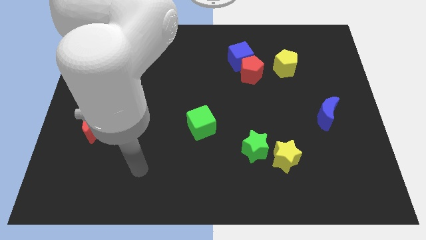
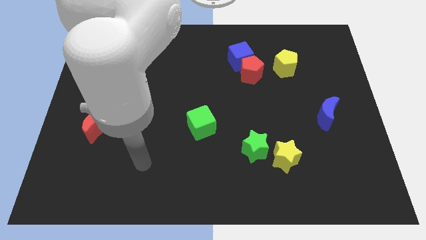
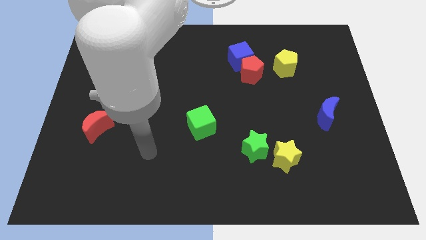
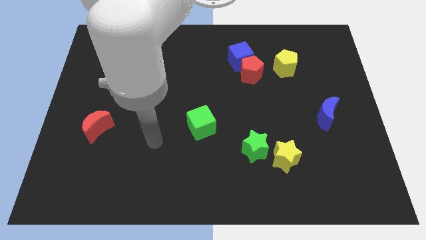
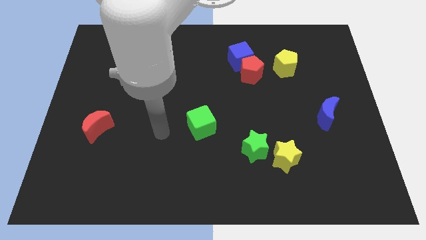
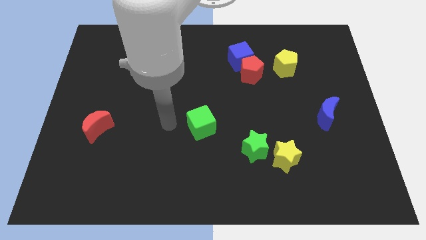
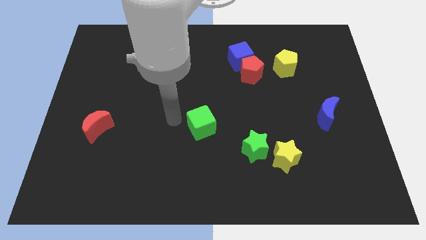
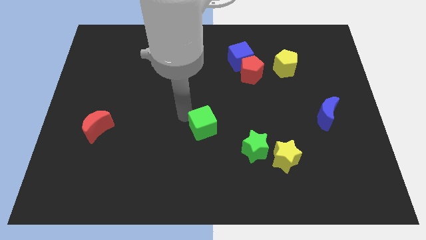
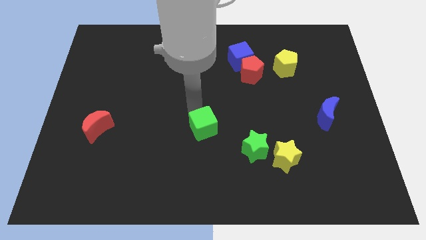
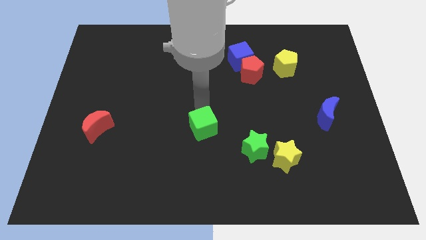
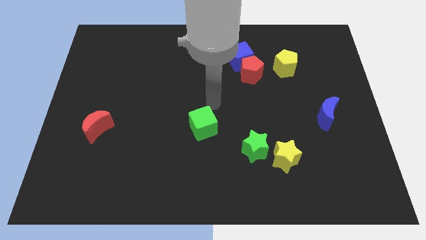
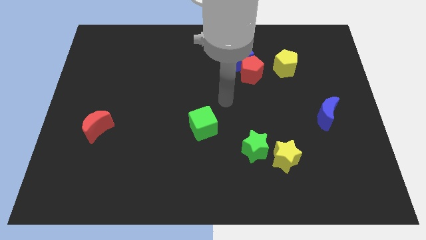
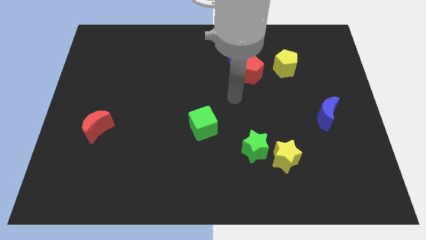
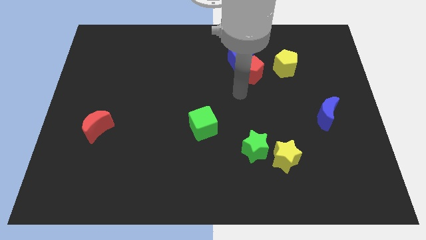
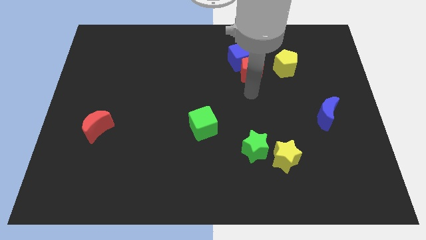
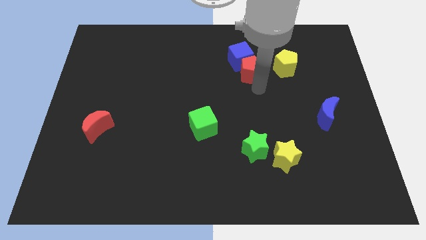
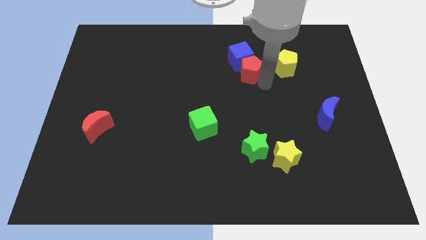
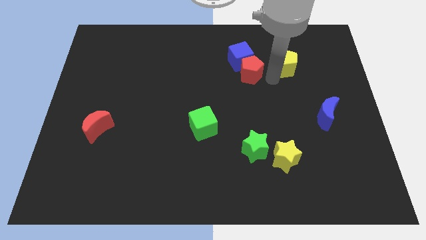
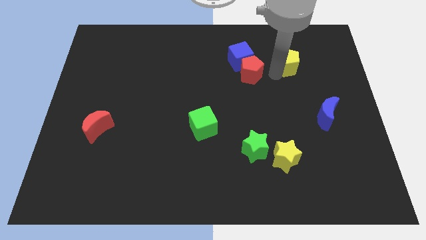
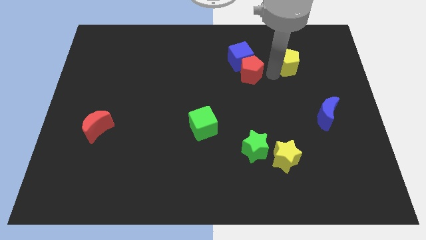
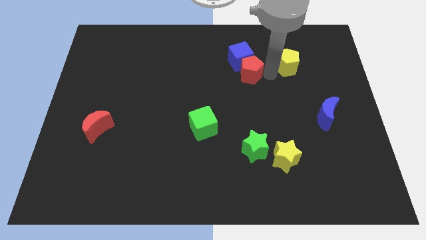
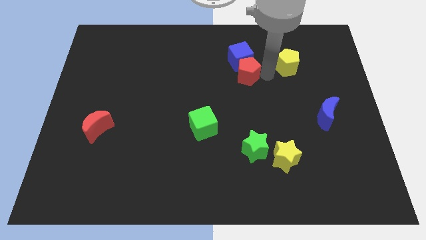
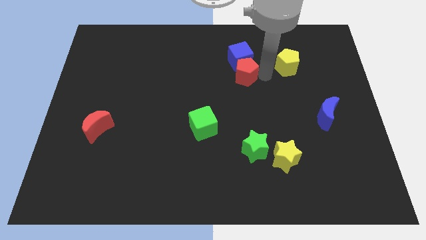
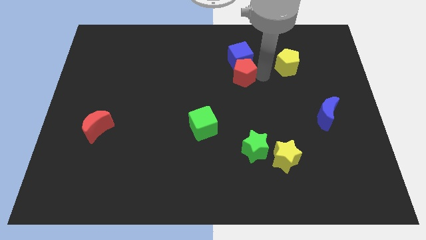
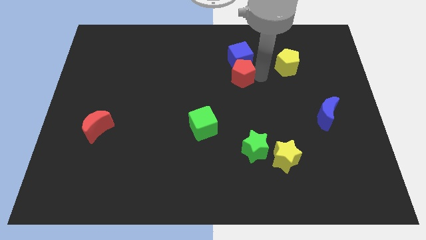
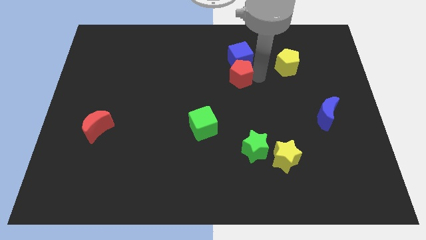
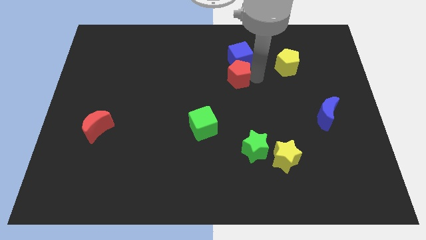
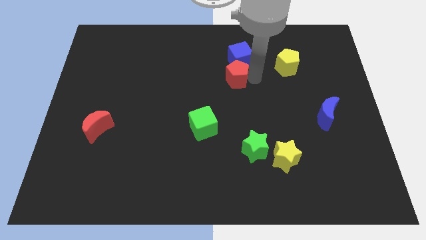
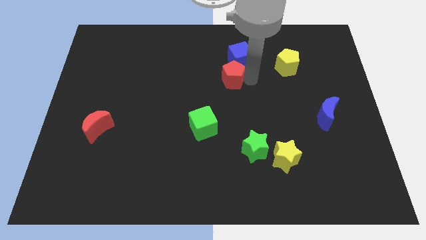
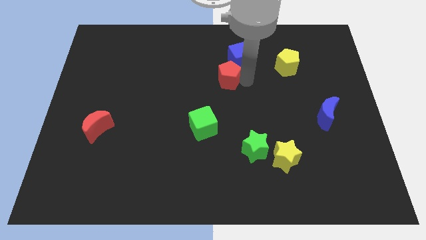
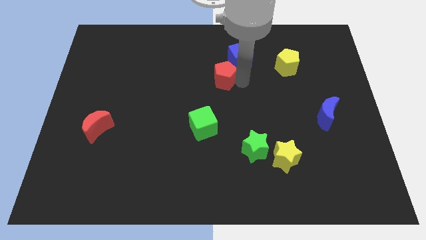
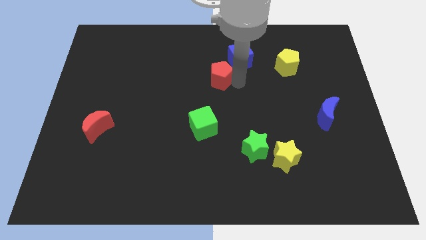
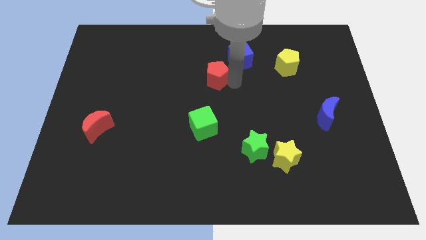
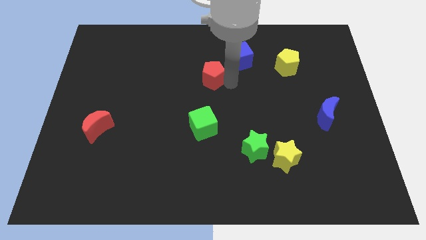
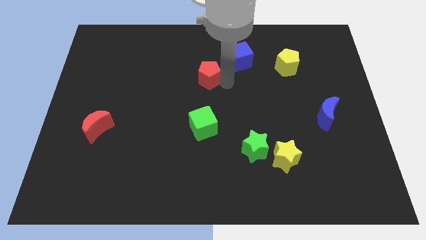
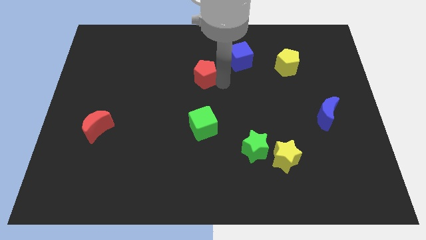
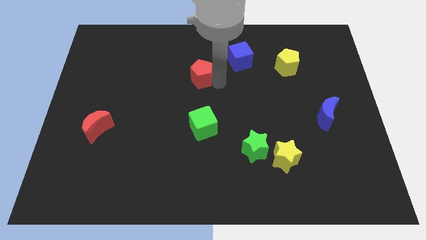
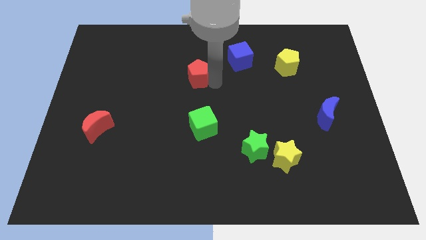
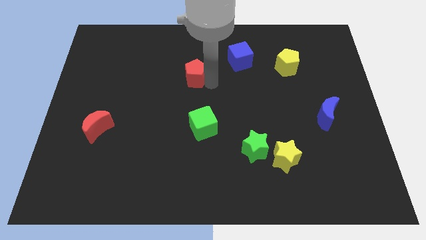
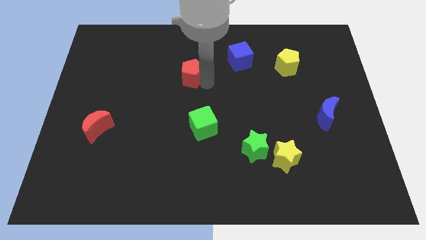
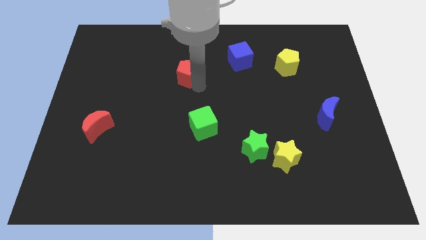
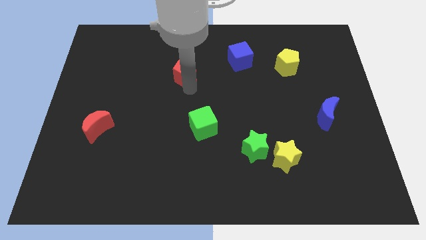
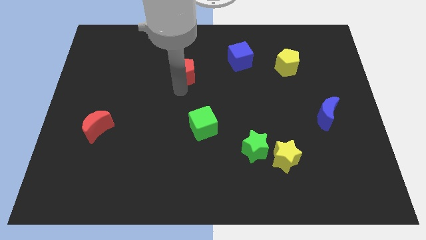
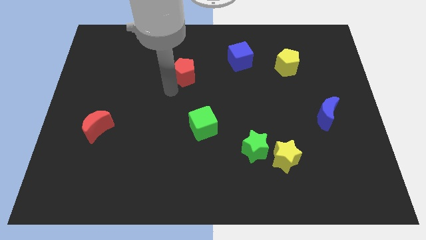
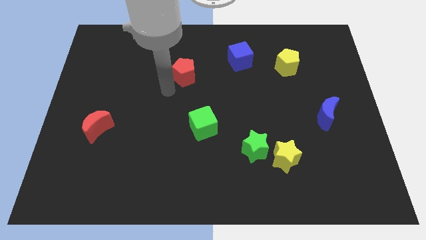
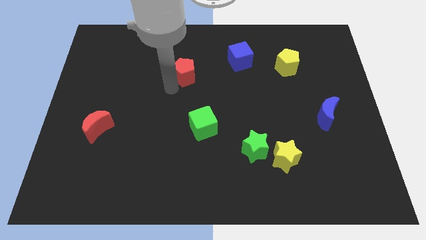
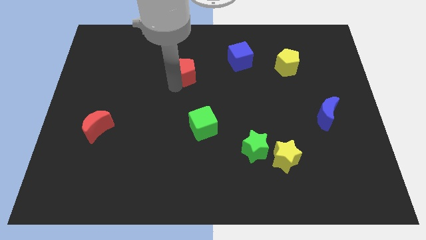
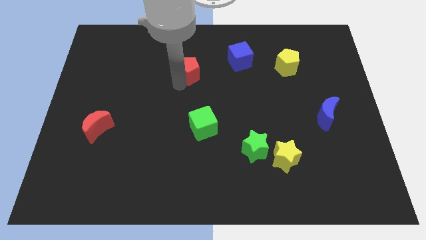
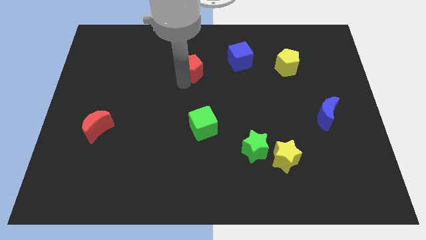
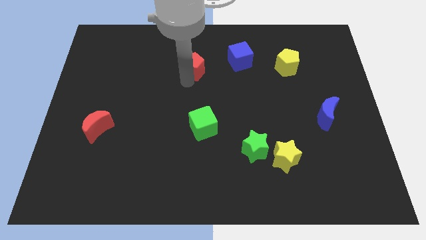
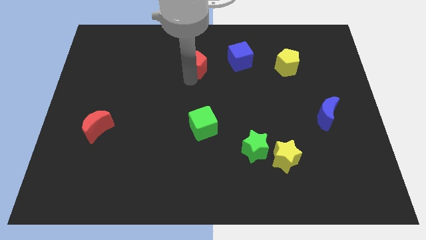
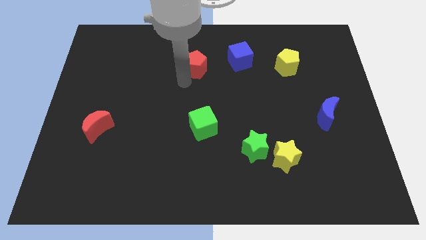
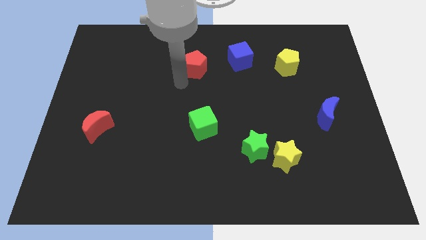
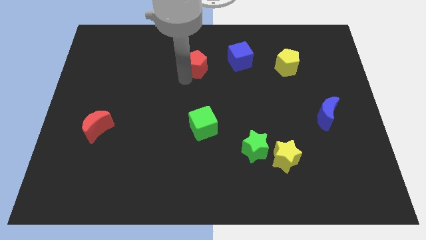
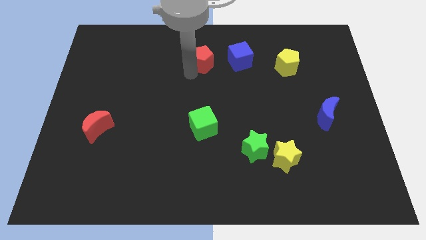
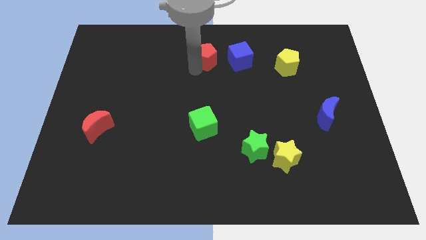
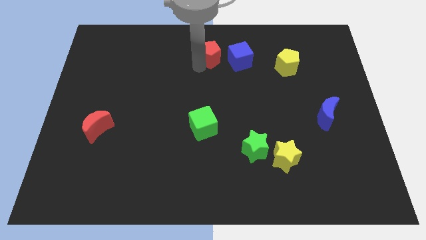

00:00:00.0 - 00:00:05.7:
slide the red pentagon to the towards your base

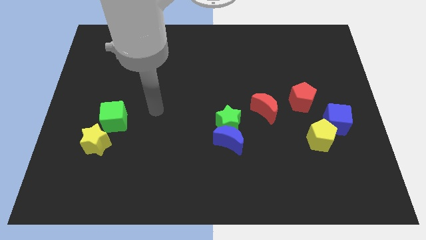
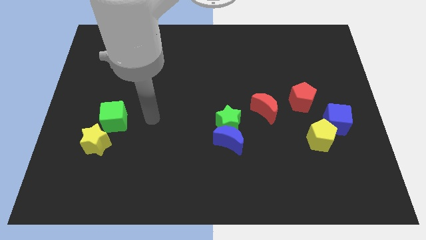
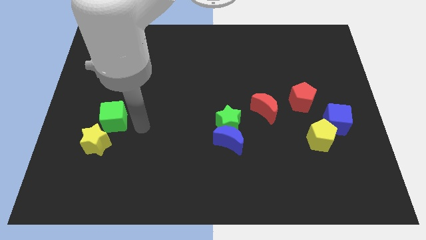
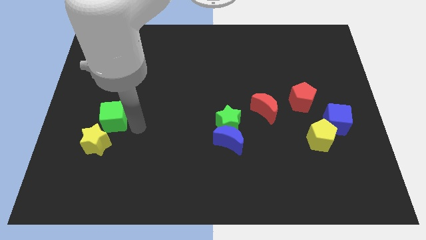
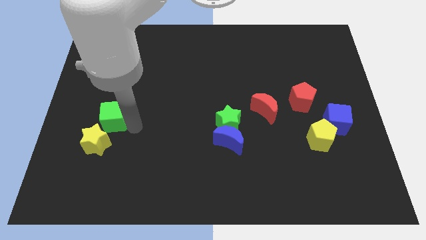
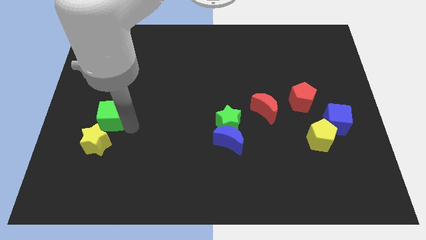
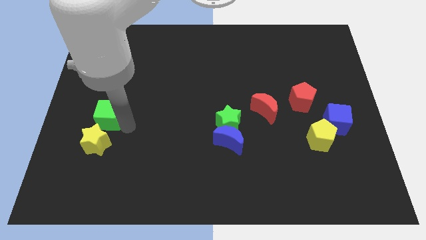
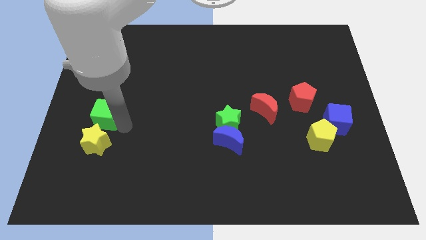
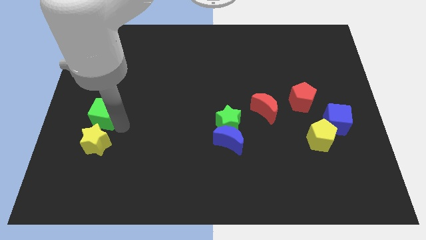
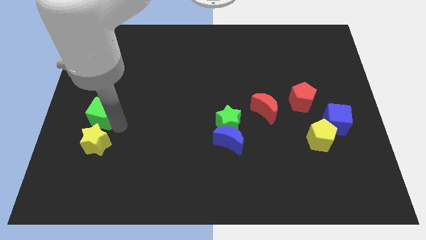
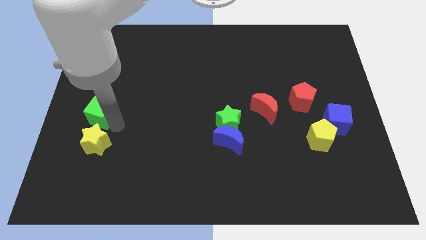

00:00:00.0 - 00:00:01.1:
slide the green cube to the left side
